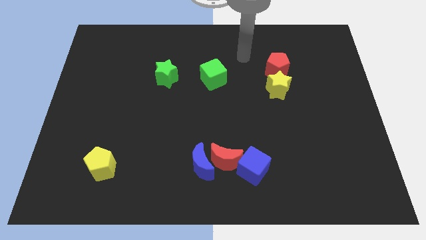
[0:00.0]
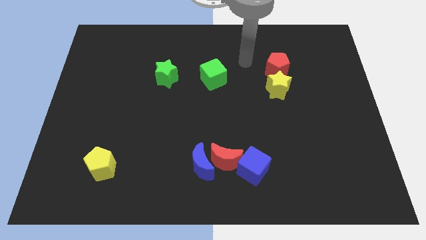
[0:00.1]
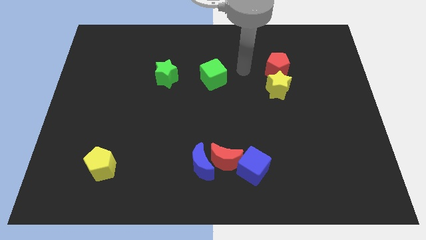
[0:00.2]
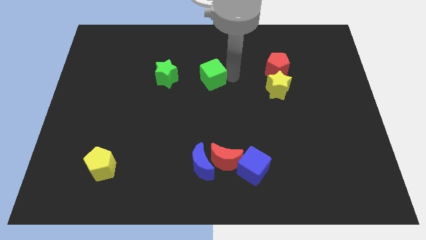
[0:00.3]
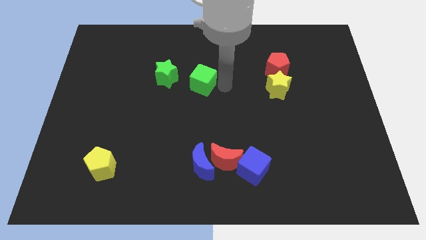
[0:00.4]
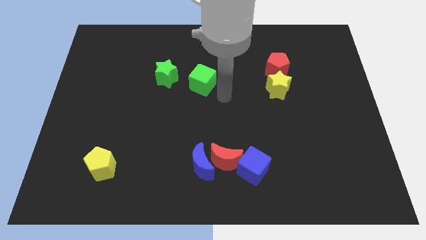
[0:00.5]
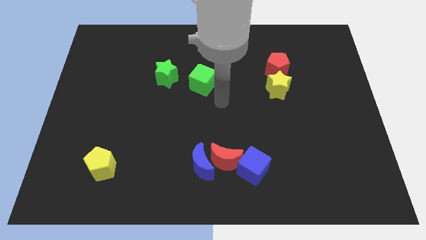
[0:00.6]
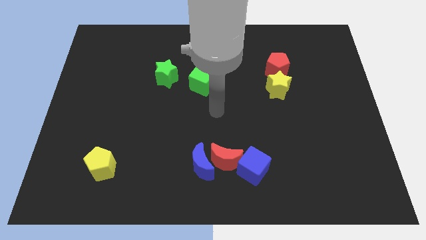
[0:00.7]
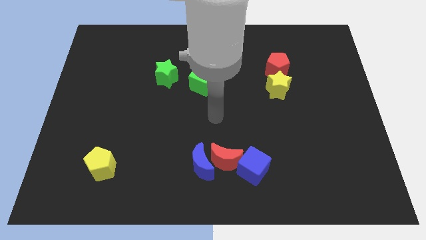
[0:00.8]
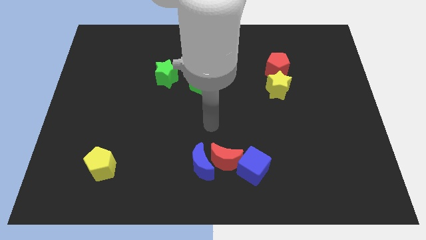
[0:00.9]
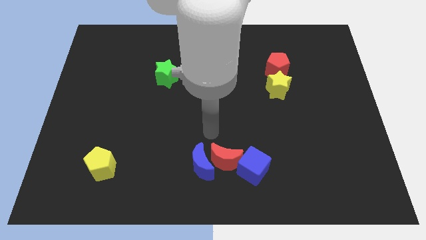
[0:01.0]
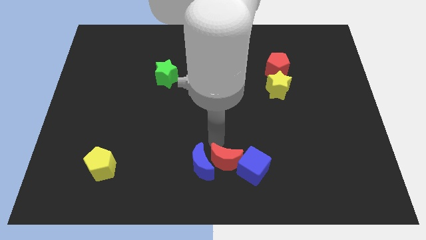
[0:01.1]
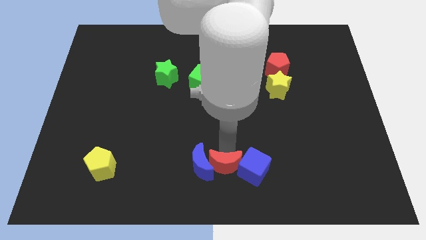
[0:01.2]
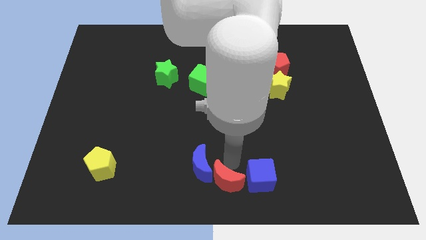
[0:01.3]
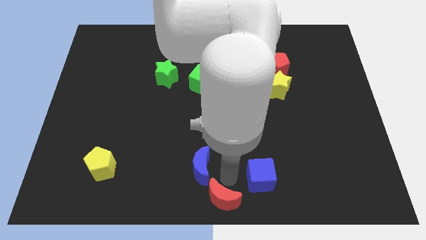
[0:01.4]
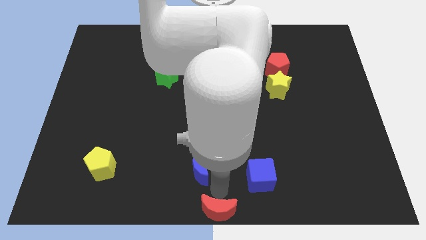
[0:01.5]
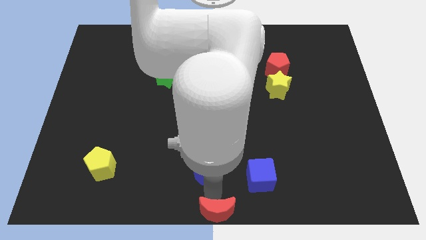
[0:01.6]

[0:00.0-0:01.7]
separate the blue moon from the red moon

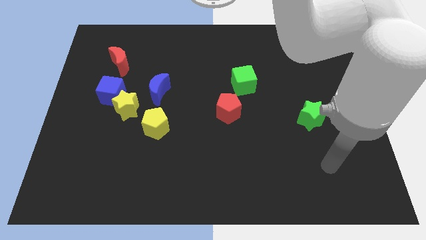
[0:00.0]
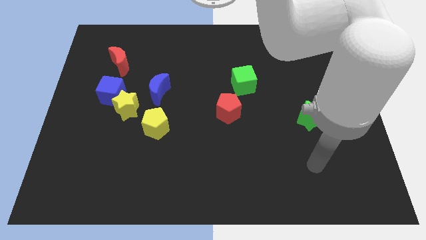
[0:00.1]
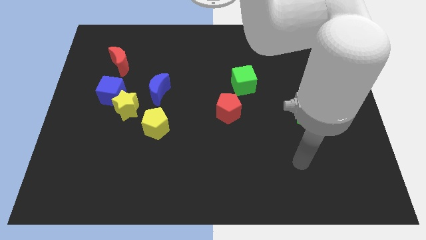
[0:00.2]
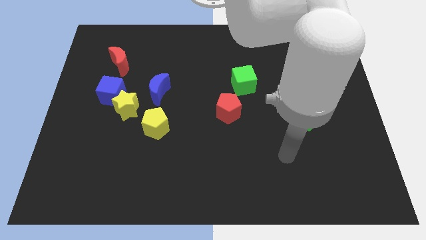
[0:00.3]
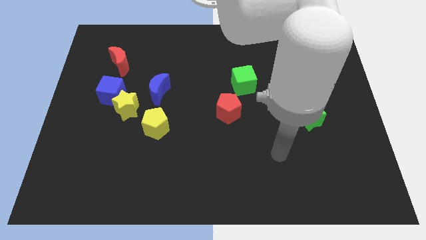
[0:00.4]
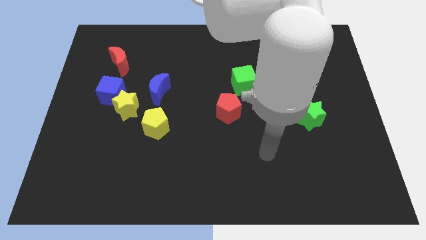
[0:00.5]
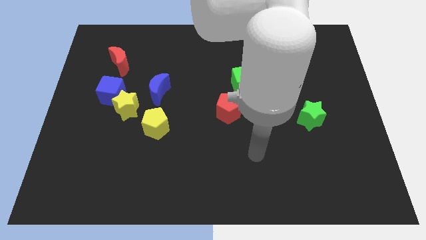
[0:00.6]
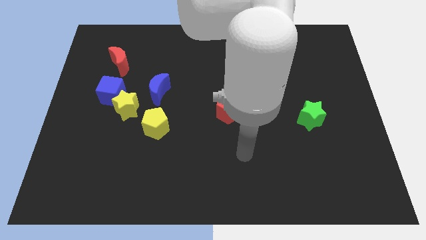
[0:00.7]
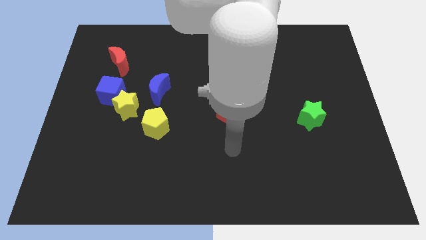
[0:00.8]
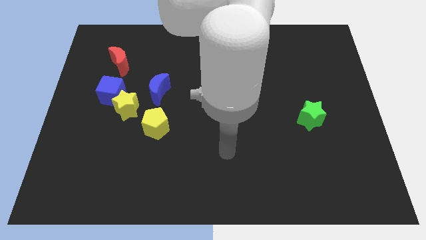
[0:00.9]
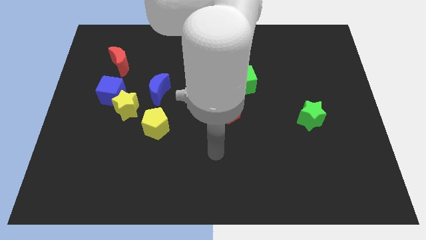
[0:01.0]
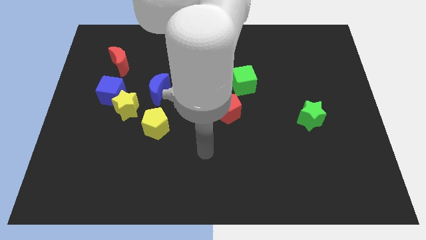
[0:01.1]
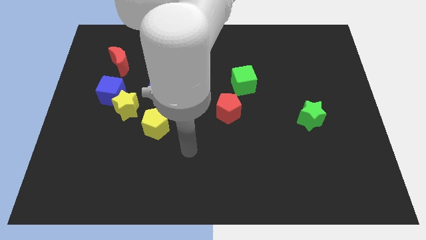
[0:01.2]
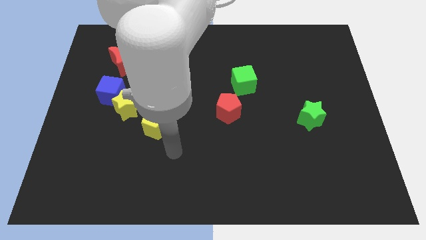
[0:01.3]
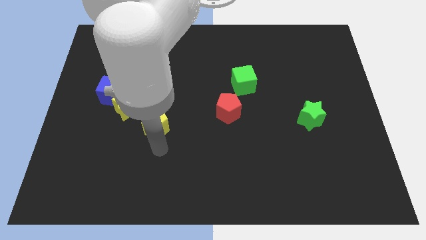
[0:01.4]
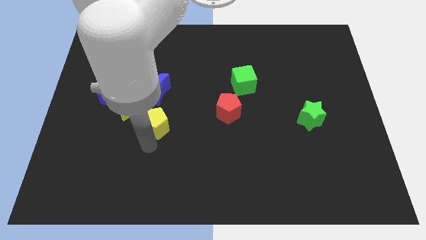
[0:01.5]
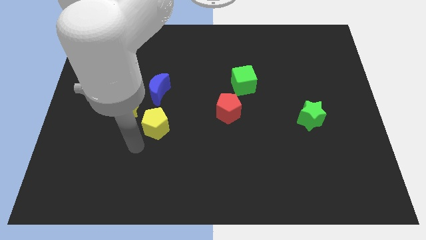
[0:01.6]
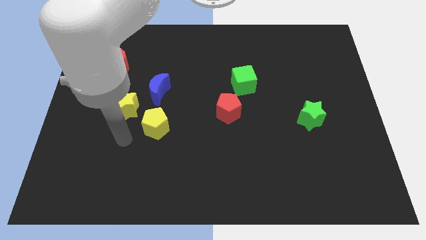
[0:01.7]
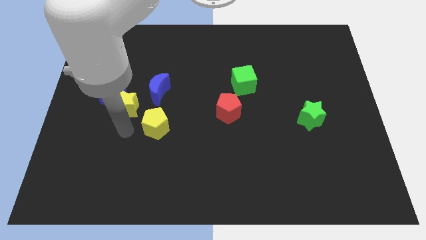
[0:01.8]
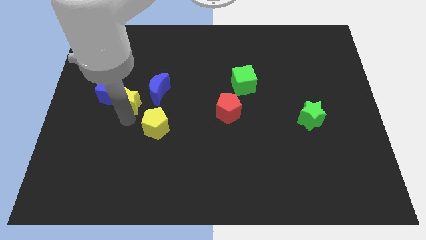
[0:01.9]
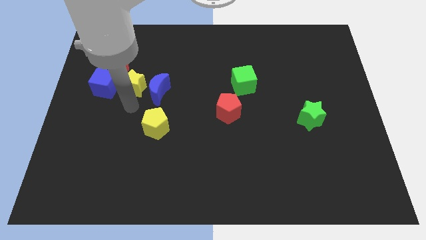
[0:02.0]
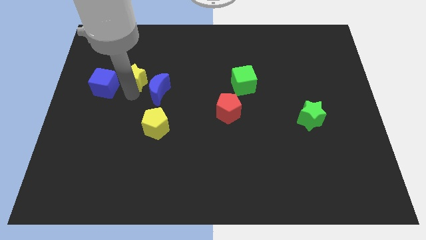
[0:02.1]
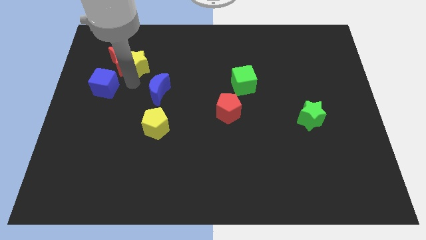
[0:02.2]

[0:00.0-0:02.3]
separate the blue cube from the yellow star

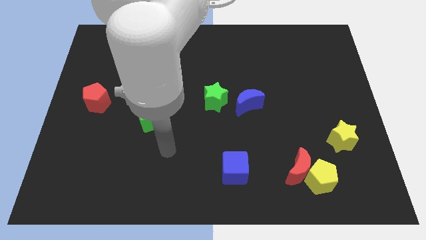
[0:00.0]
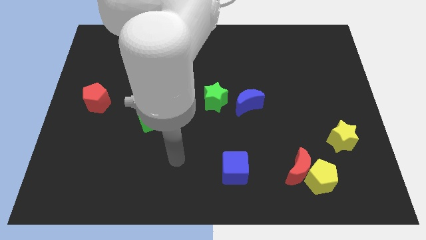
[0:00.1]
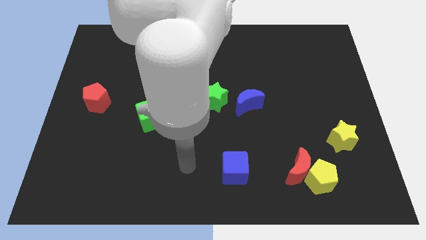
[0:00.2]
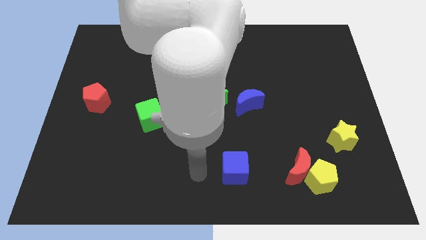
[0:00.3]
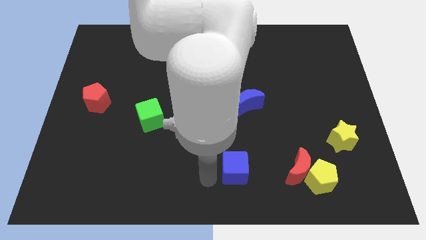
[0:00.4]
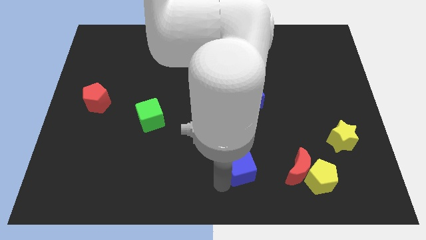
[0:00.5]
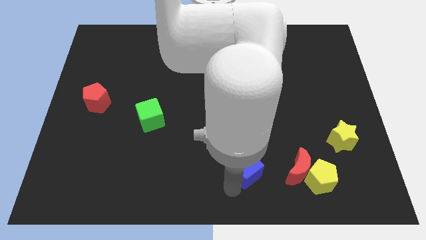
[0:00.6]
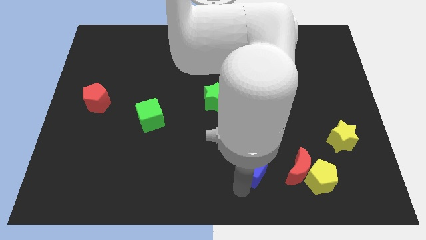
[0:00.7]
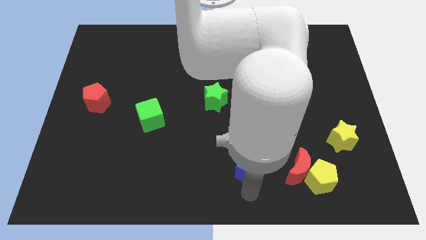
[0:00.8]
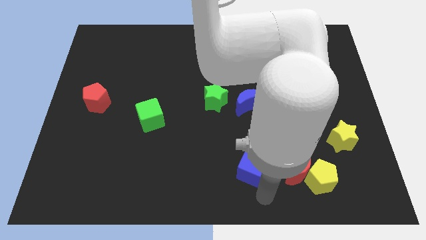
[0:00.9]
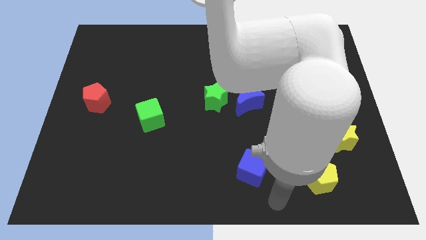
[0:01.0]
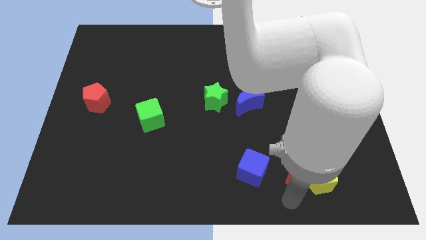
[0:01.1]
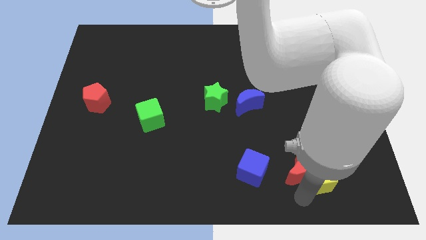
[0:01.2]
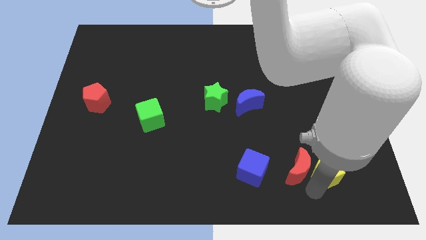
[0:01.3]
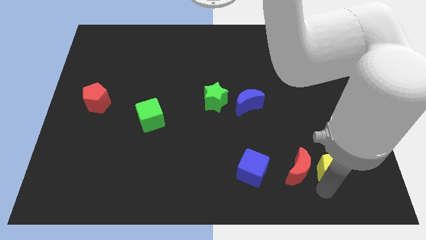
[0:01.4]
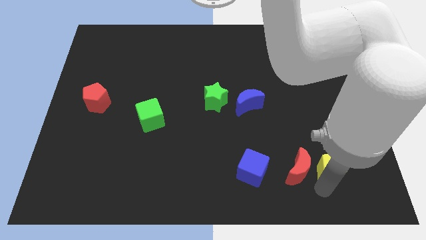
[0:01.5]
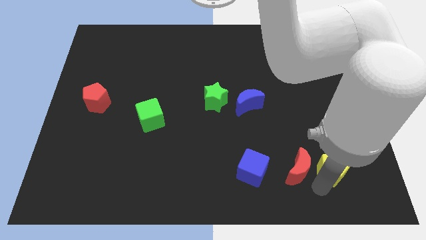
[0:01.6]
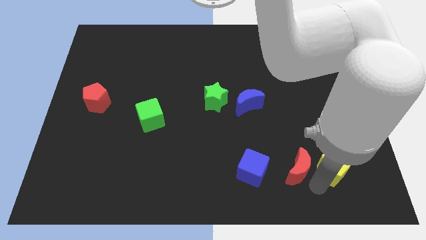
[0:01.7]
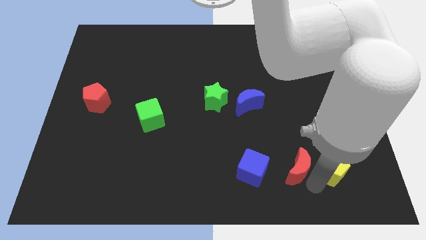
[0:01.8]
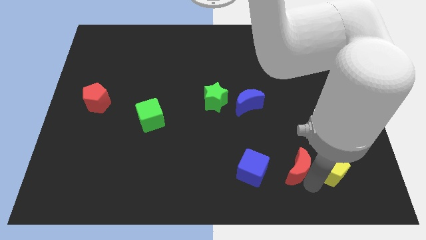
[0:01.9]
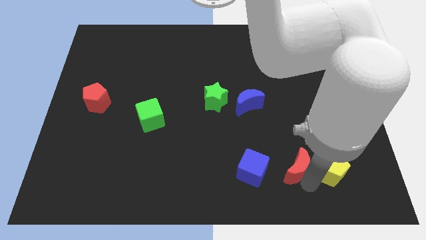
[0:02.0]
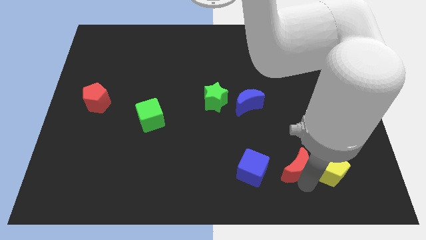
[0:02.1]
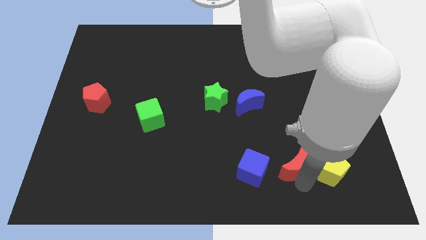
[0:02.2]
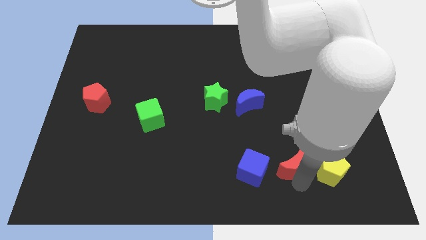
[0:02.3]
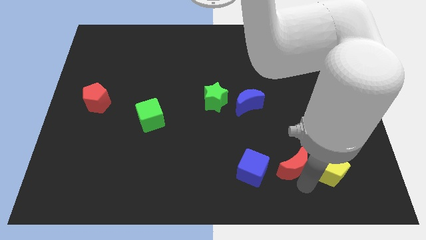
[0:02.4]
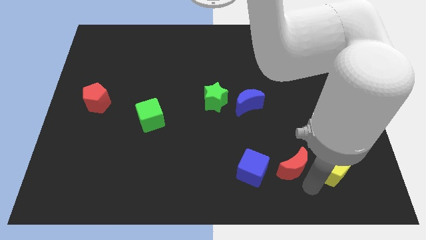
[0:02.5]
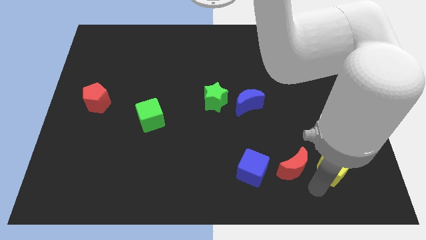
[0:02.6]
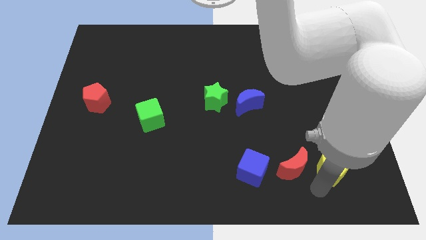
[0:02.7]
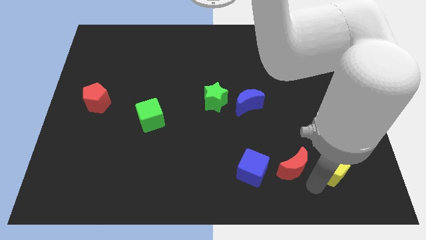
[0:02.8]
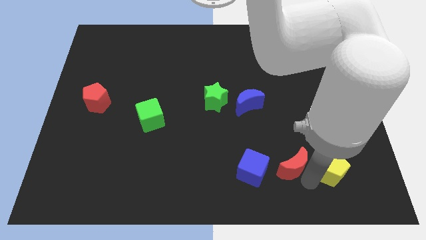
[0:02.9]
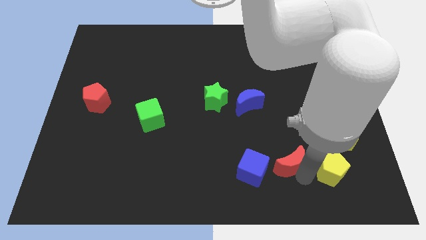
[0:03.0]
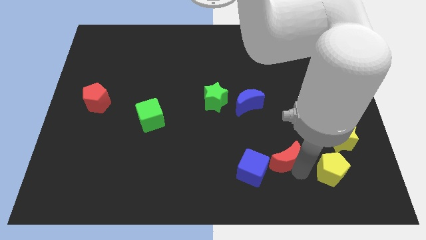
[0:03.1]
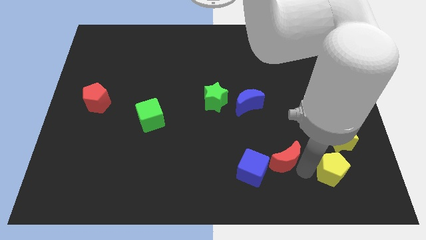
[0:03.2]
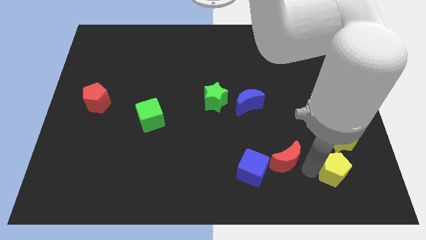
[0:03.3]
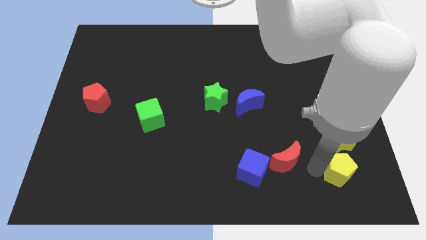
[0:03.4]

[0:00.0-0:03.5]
move the red moon away from the yellow pentagon

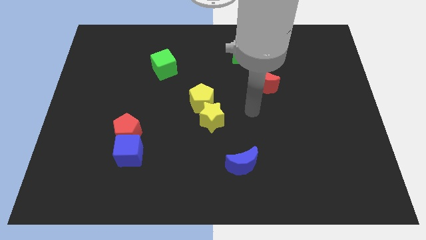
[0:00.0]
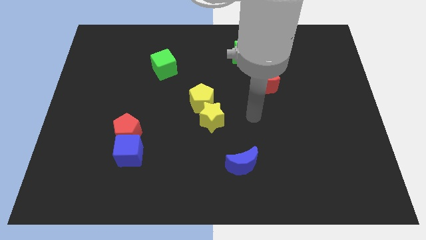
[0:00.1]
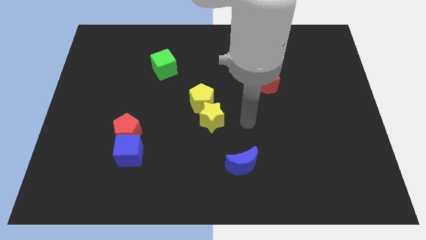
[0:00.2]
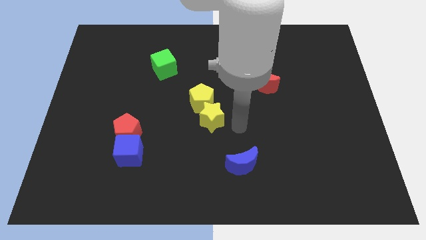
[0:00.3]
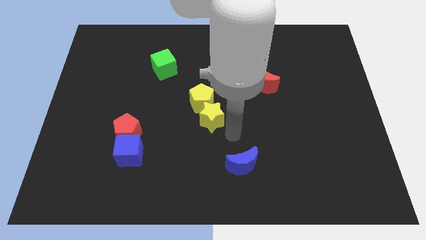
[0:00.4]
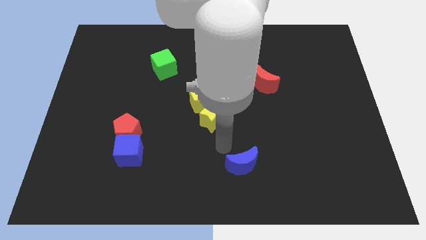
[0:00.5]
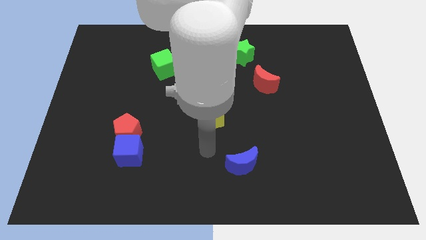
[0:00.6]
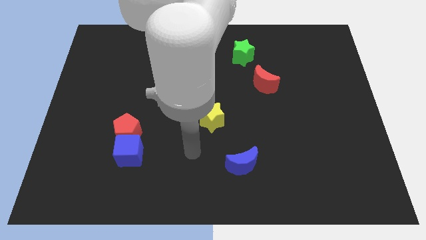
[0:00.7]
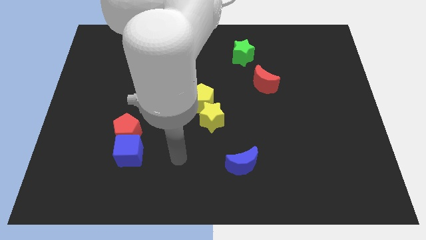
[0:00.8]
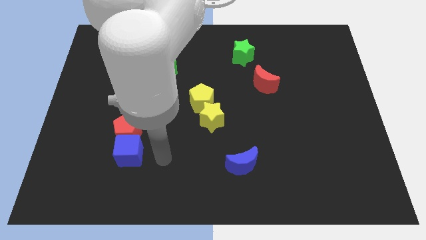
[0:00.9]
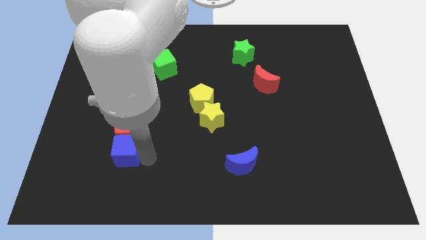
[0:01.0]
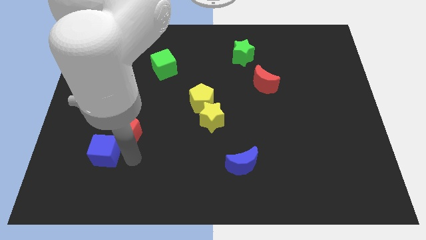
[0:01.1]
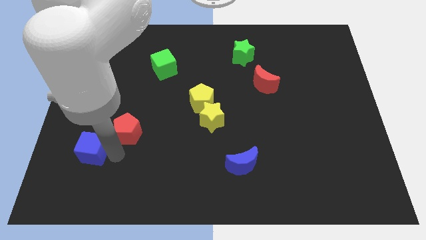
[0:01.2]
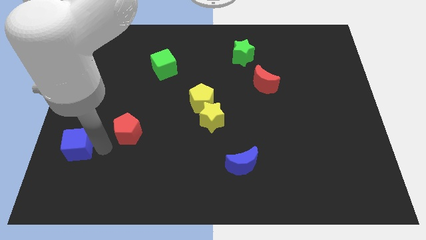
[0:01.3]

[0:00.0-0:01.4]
move the red pentagon away from the blue cube

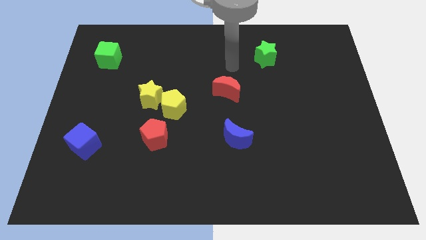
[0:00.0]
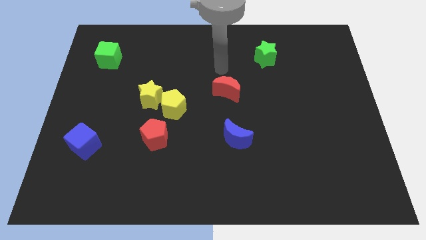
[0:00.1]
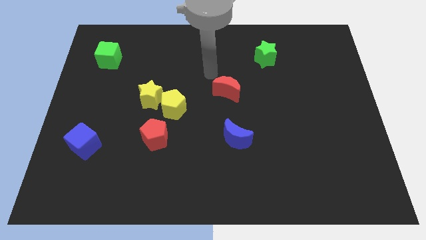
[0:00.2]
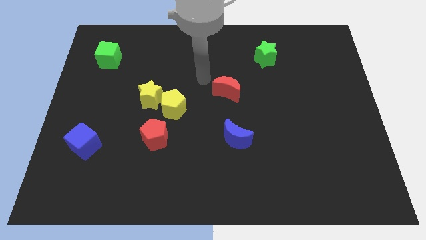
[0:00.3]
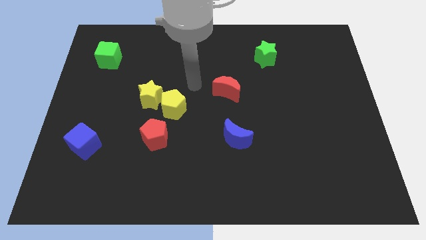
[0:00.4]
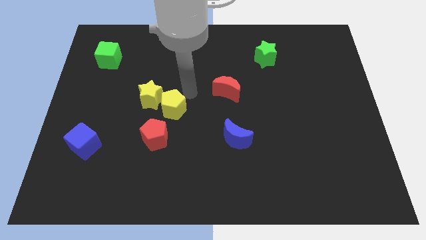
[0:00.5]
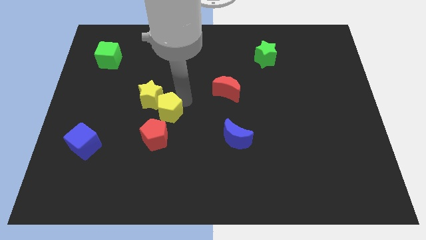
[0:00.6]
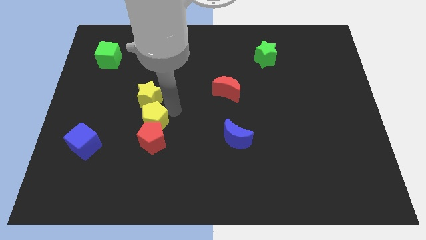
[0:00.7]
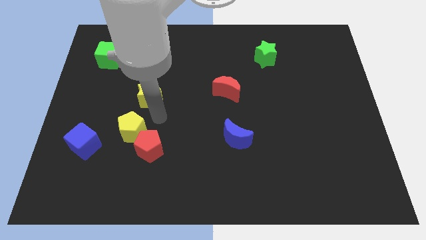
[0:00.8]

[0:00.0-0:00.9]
pull the yellow star apart from the yellow pentagon
